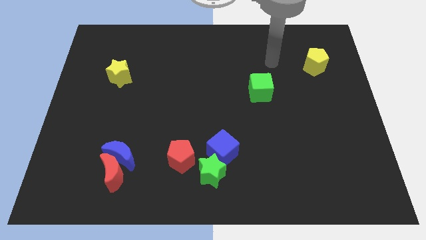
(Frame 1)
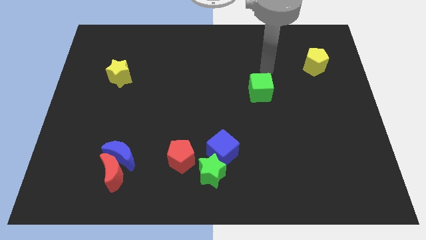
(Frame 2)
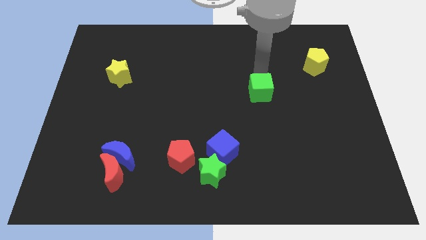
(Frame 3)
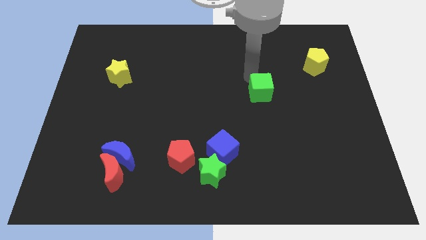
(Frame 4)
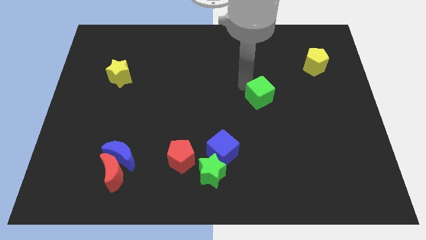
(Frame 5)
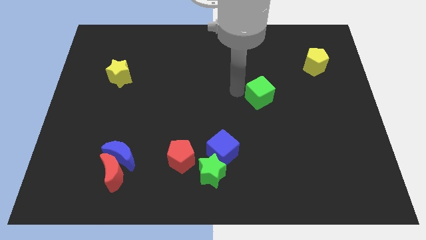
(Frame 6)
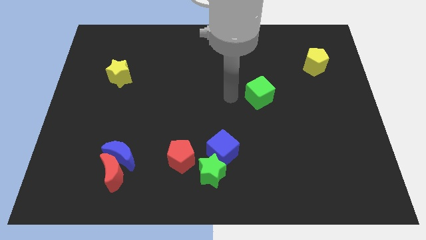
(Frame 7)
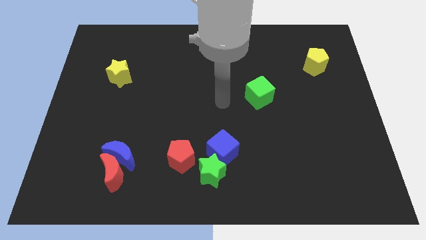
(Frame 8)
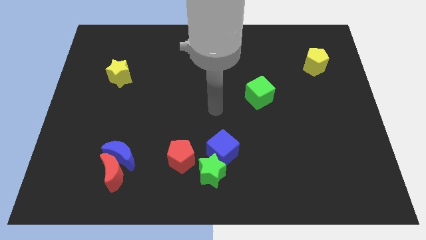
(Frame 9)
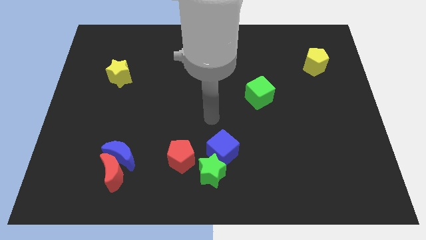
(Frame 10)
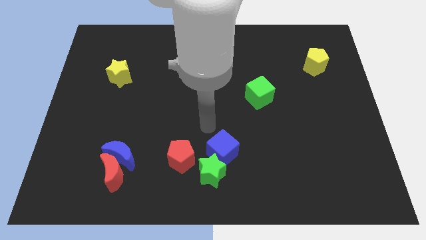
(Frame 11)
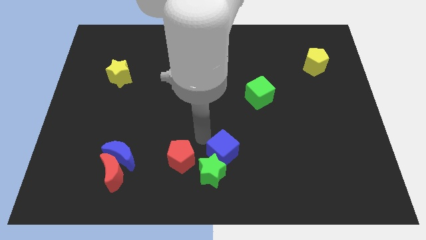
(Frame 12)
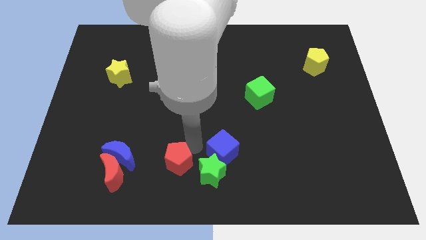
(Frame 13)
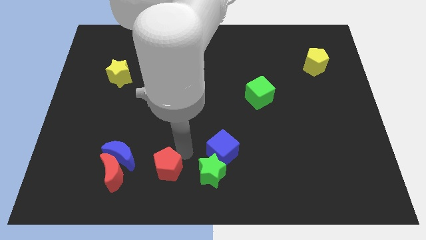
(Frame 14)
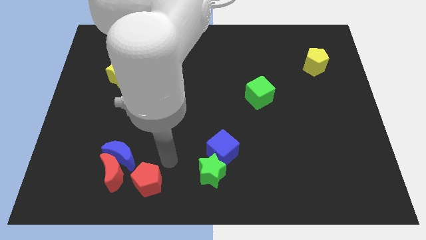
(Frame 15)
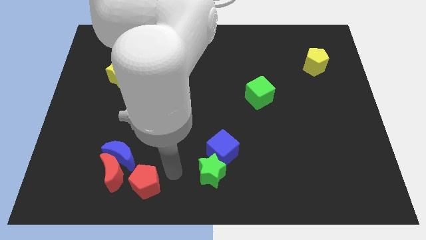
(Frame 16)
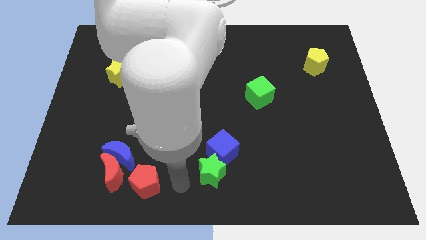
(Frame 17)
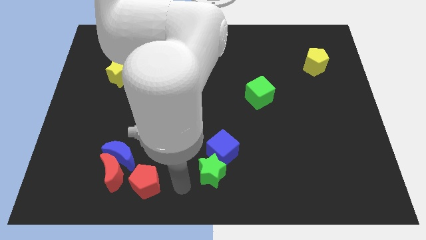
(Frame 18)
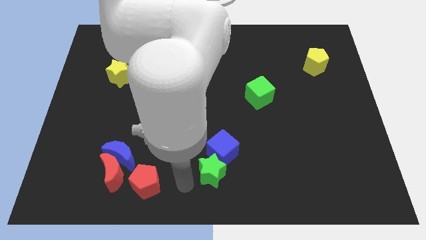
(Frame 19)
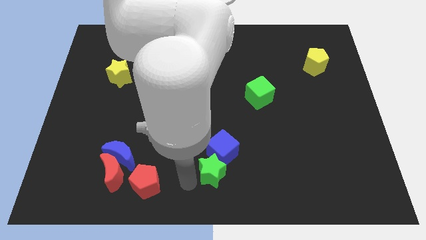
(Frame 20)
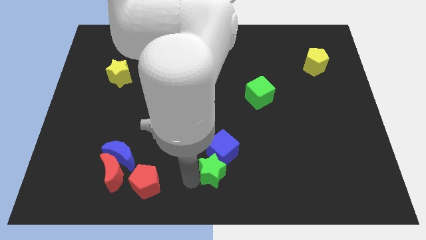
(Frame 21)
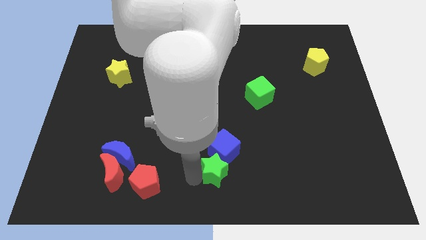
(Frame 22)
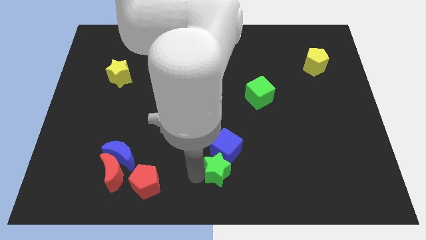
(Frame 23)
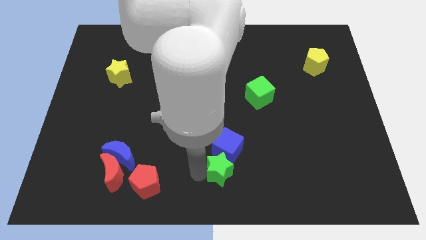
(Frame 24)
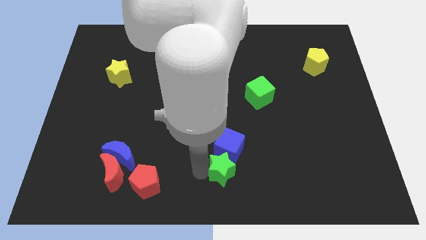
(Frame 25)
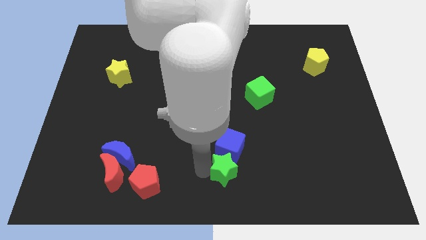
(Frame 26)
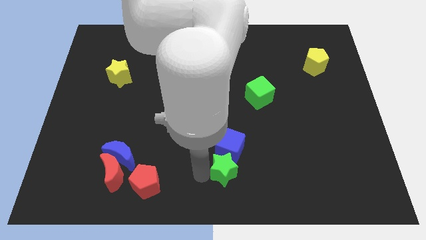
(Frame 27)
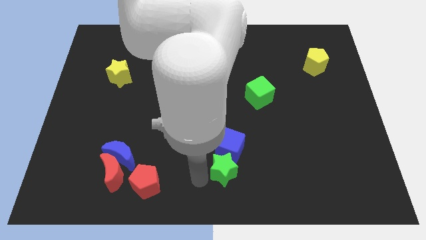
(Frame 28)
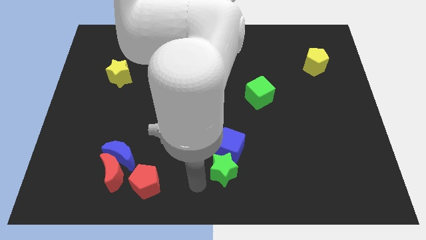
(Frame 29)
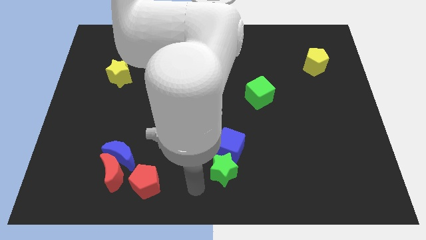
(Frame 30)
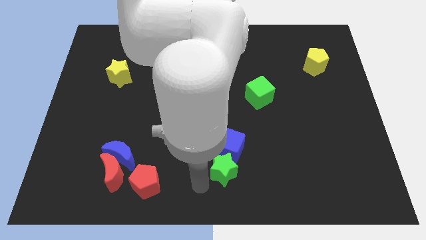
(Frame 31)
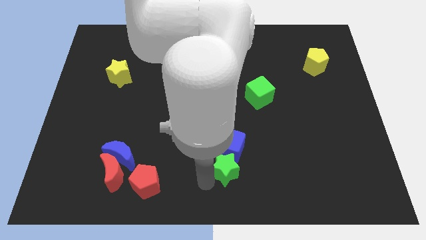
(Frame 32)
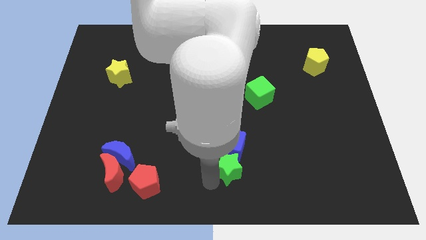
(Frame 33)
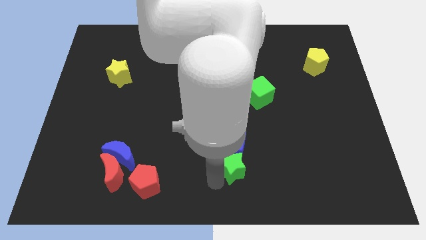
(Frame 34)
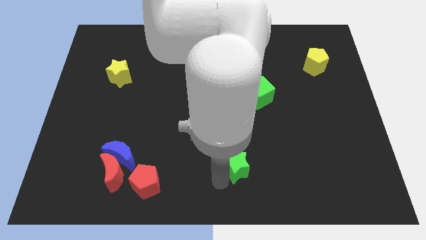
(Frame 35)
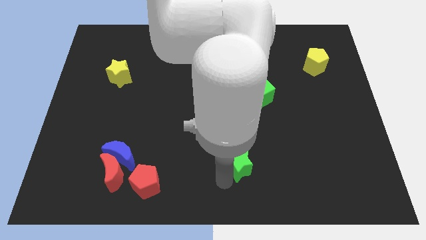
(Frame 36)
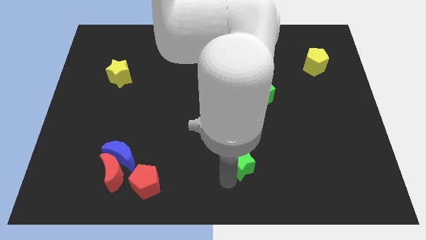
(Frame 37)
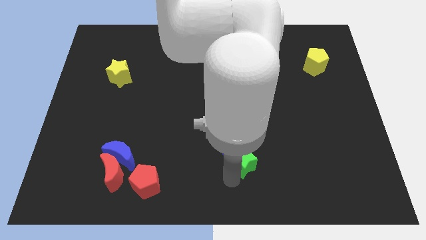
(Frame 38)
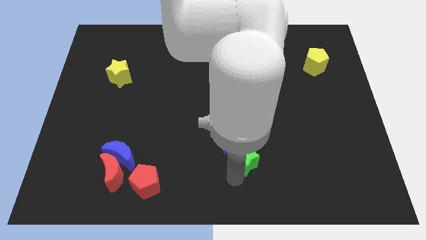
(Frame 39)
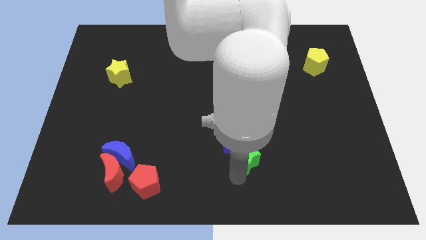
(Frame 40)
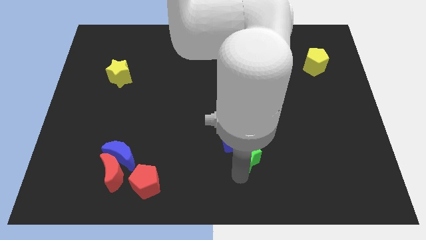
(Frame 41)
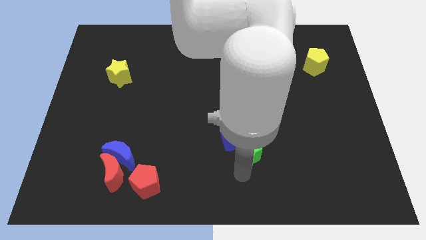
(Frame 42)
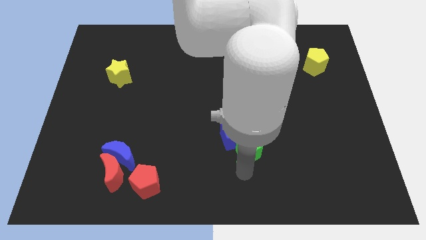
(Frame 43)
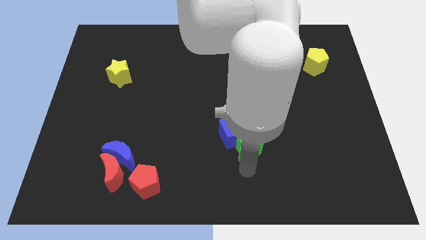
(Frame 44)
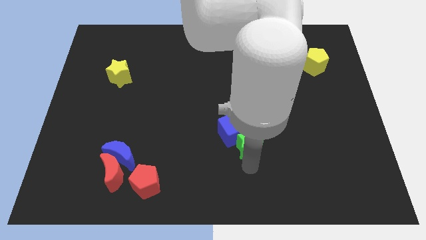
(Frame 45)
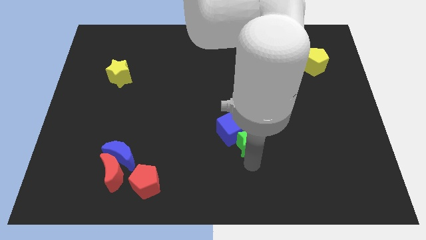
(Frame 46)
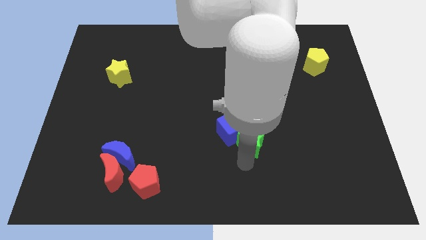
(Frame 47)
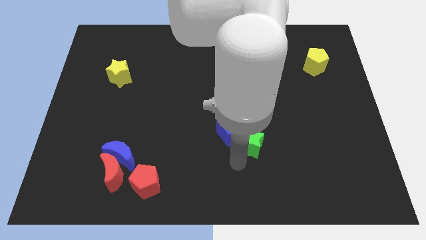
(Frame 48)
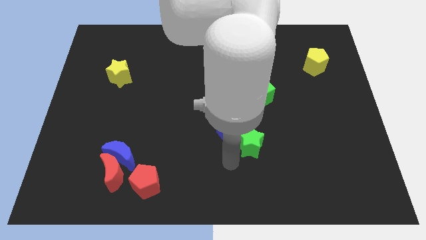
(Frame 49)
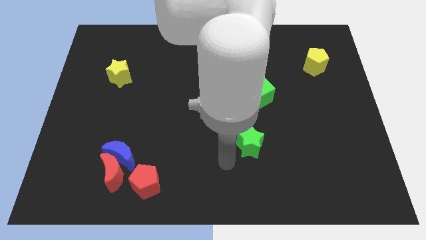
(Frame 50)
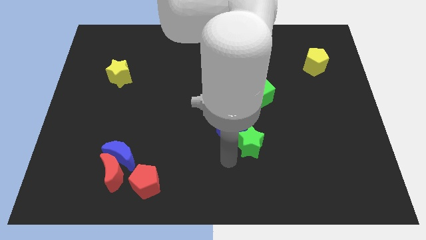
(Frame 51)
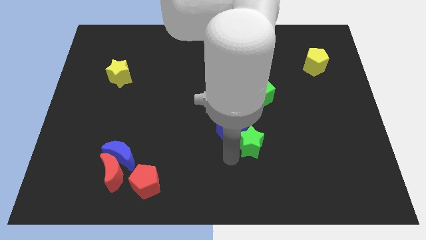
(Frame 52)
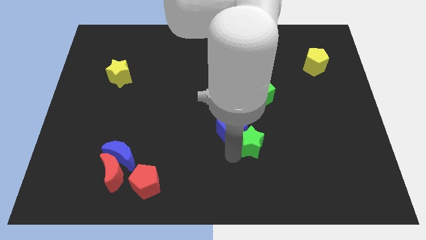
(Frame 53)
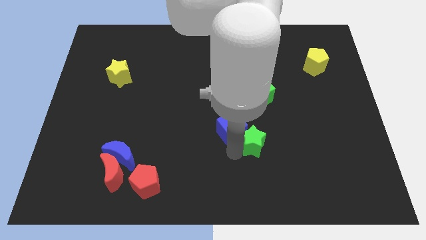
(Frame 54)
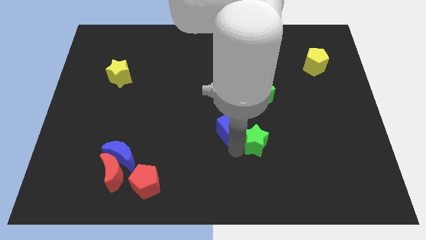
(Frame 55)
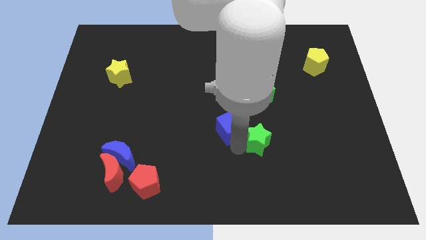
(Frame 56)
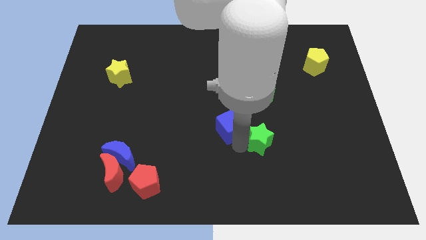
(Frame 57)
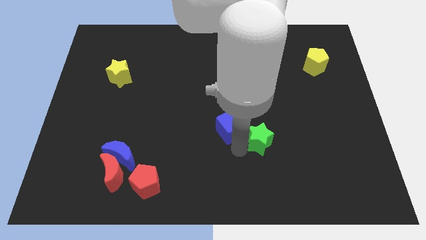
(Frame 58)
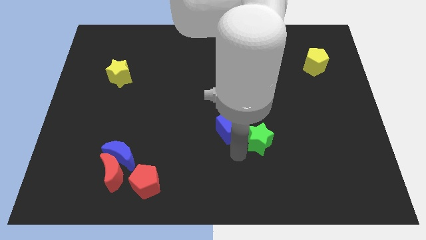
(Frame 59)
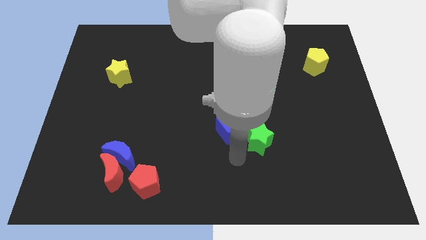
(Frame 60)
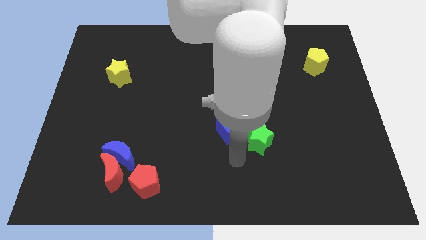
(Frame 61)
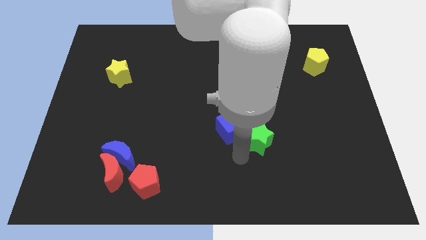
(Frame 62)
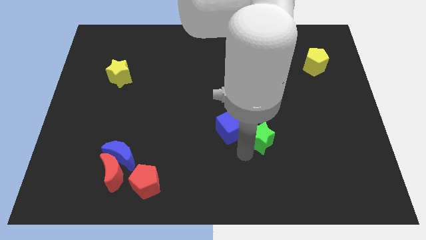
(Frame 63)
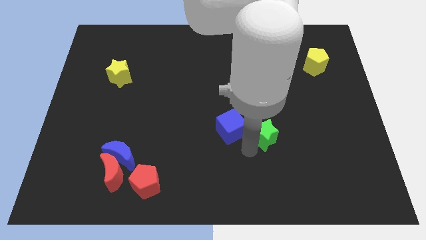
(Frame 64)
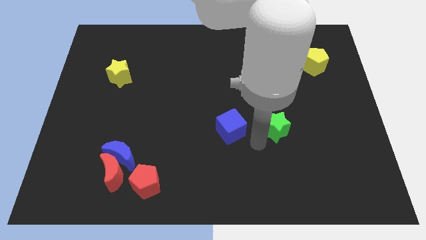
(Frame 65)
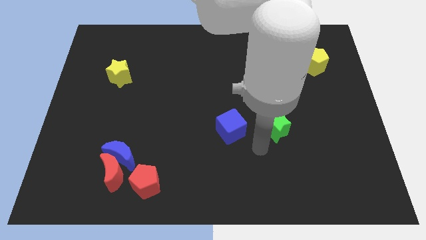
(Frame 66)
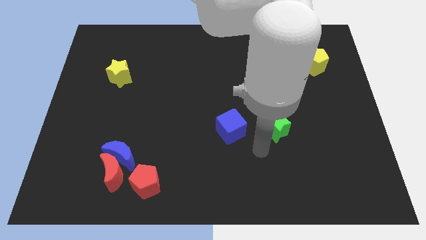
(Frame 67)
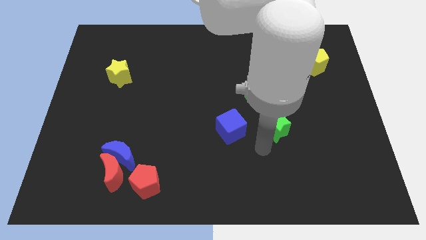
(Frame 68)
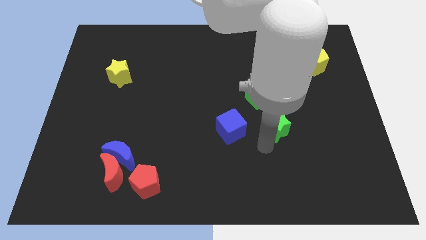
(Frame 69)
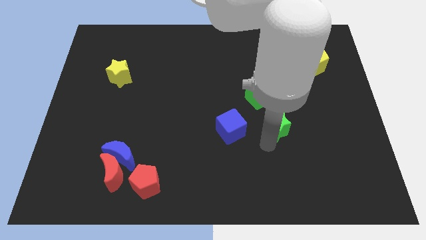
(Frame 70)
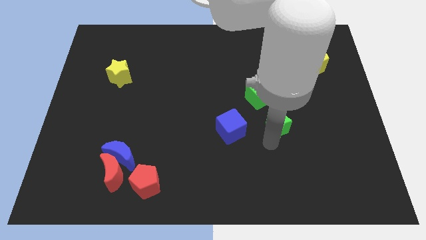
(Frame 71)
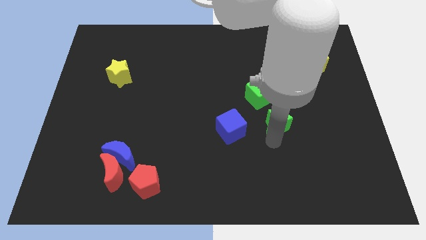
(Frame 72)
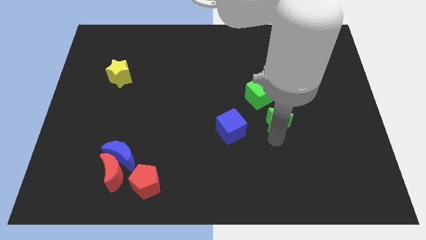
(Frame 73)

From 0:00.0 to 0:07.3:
slide the green star up and to the right diagonally

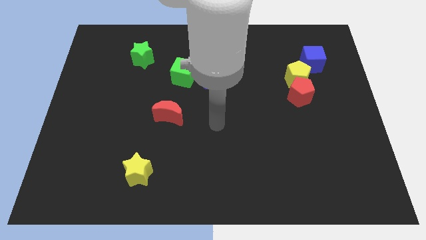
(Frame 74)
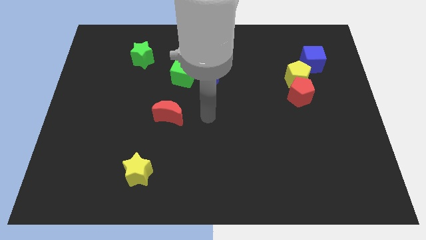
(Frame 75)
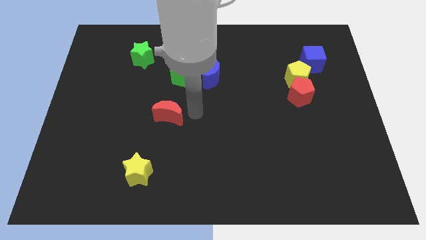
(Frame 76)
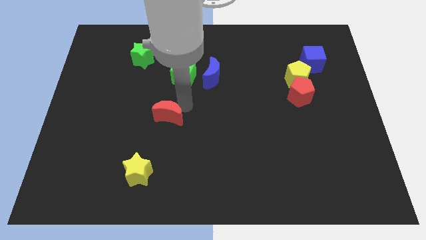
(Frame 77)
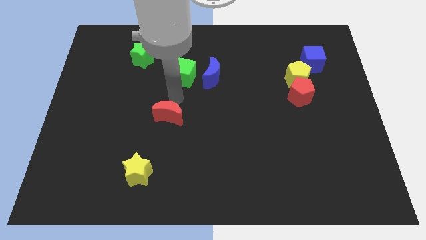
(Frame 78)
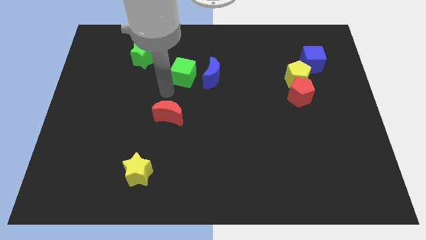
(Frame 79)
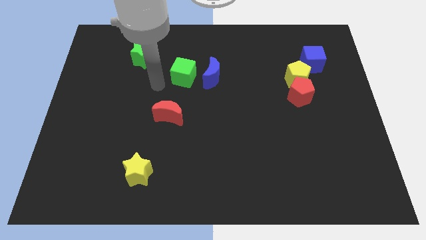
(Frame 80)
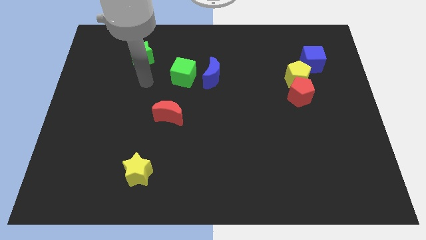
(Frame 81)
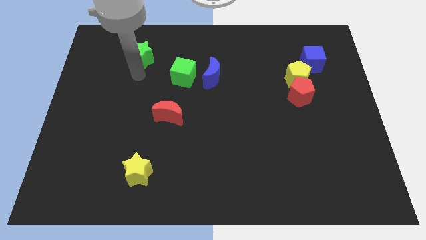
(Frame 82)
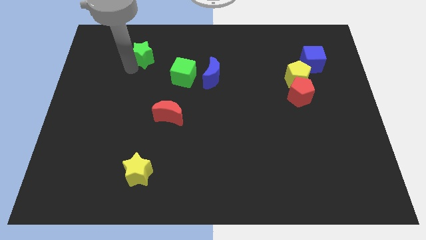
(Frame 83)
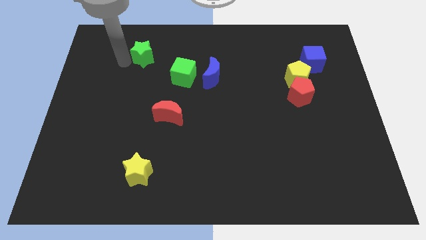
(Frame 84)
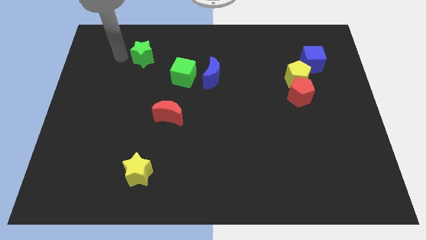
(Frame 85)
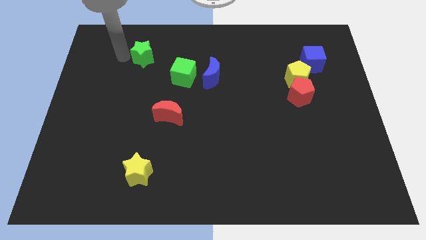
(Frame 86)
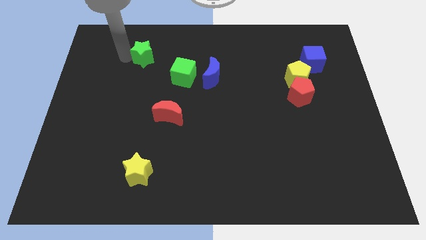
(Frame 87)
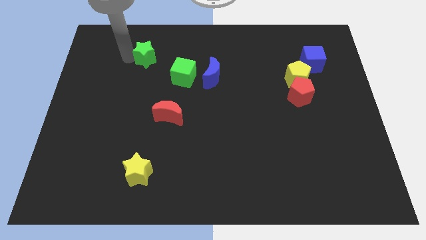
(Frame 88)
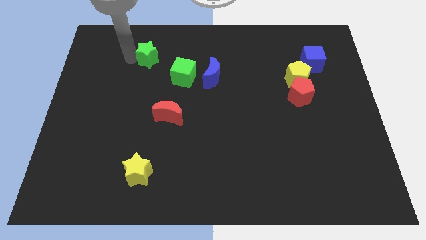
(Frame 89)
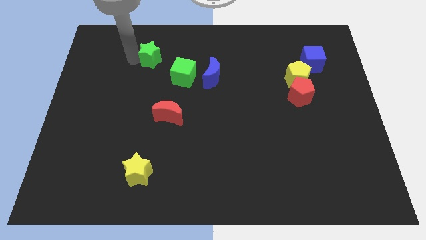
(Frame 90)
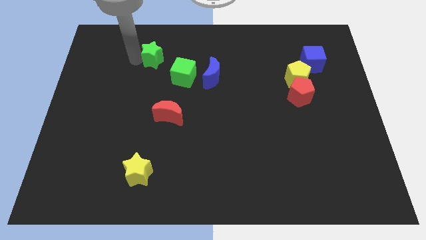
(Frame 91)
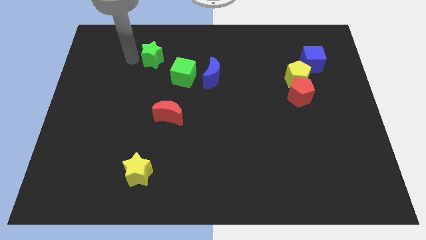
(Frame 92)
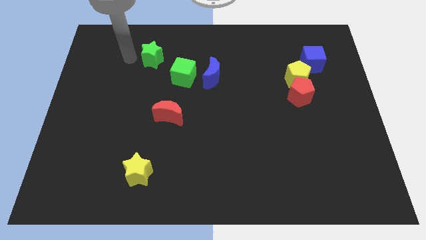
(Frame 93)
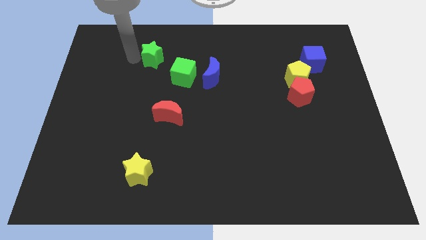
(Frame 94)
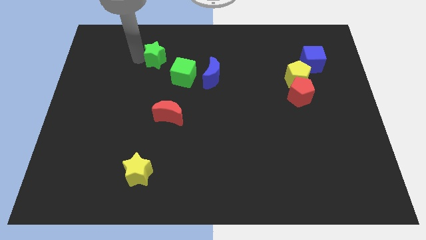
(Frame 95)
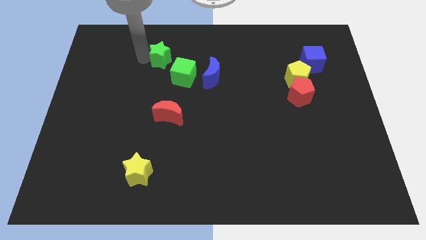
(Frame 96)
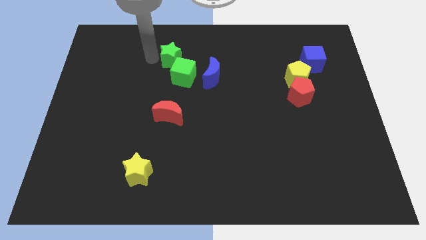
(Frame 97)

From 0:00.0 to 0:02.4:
slide the green star right a bit
